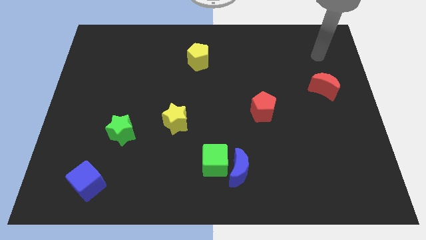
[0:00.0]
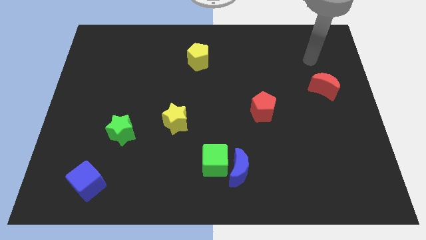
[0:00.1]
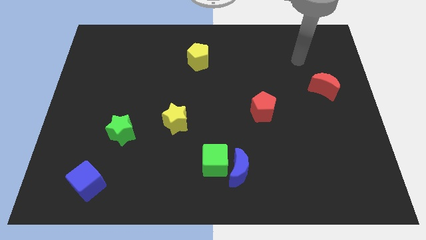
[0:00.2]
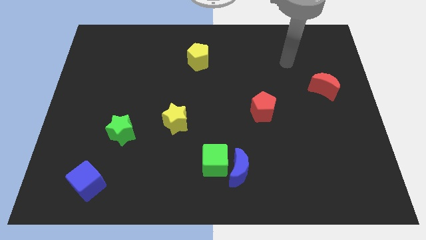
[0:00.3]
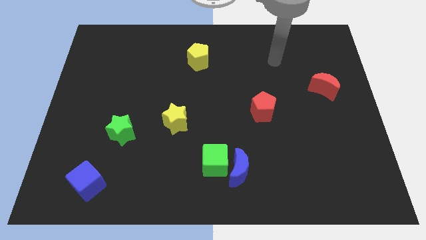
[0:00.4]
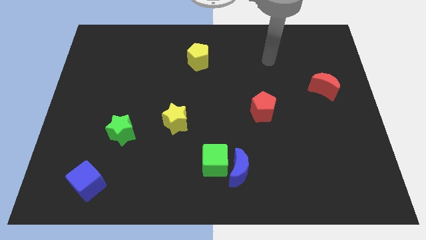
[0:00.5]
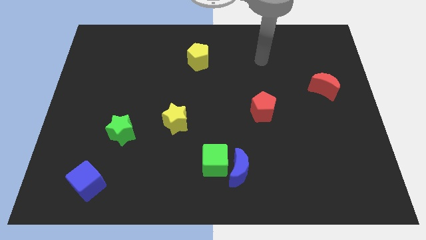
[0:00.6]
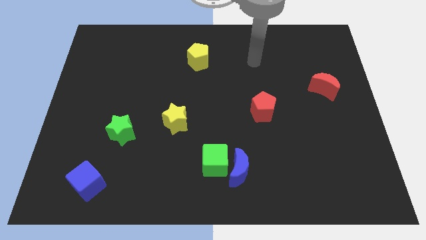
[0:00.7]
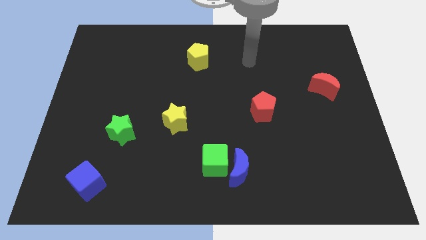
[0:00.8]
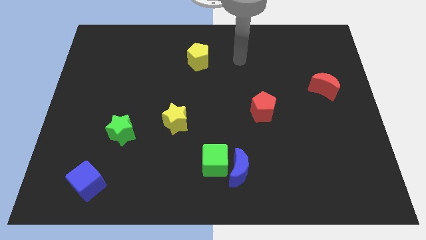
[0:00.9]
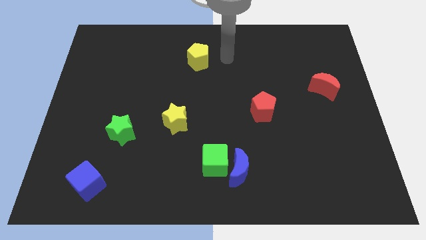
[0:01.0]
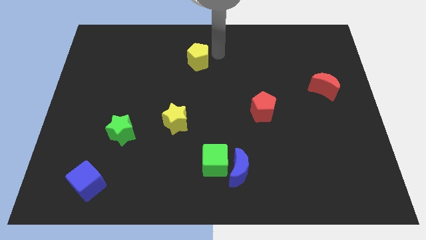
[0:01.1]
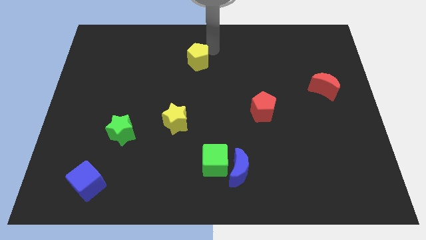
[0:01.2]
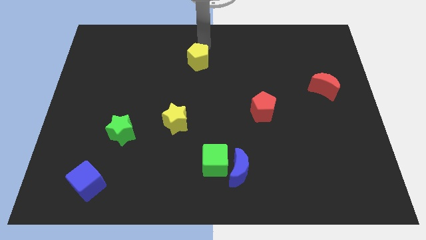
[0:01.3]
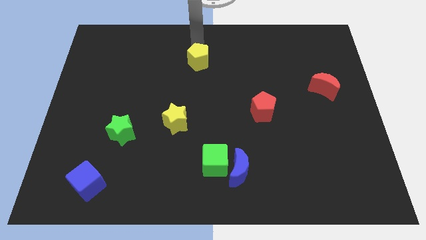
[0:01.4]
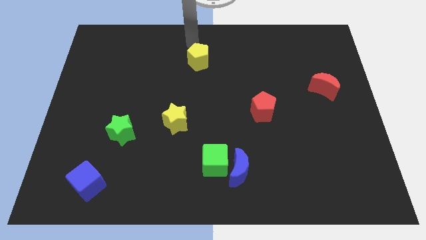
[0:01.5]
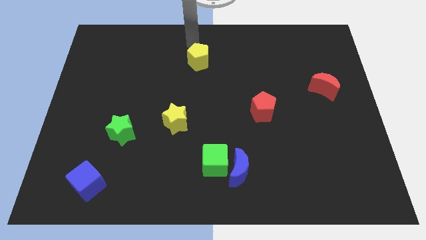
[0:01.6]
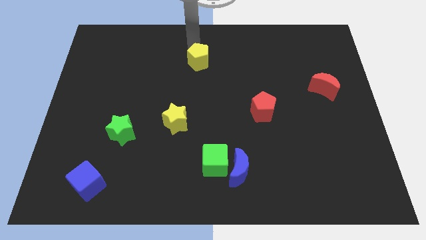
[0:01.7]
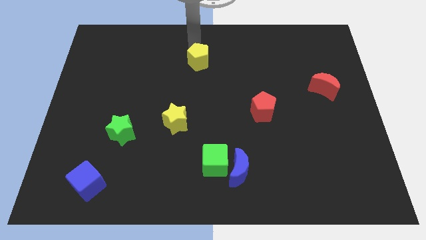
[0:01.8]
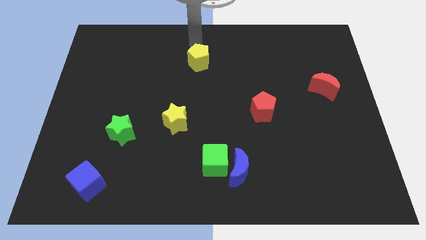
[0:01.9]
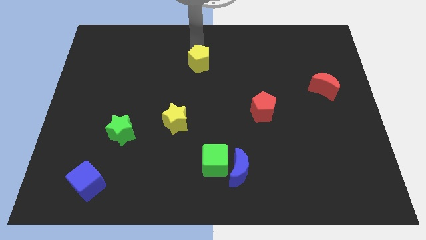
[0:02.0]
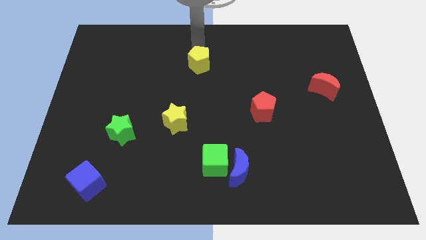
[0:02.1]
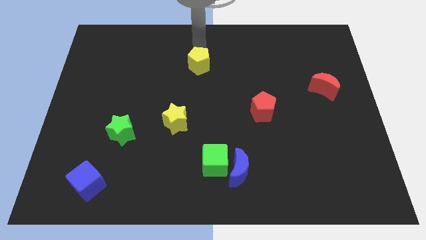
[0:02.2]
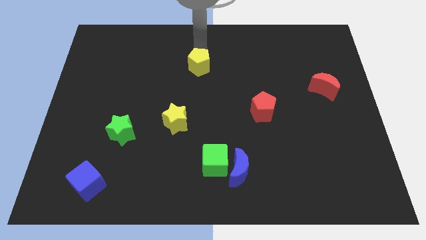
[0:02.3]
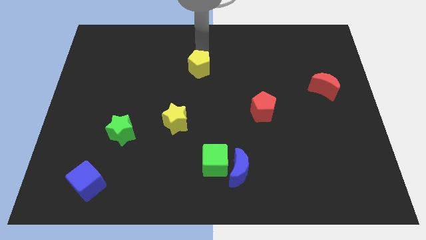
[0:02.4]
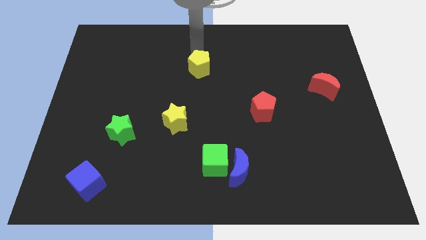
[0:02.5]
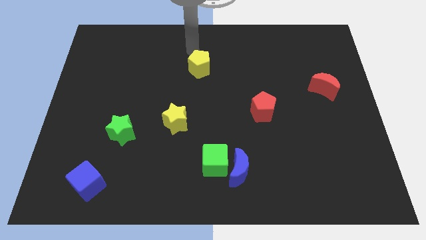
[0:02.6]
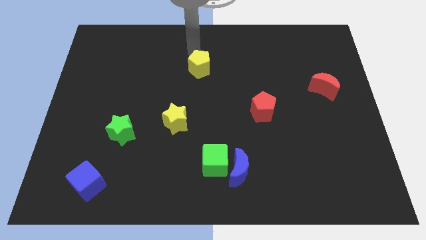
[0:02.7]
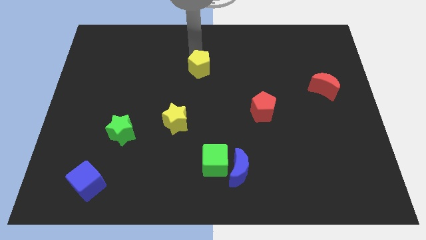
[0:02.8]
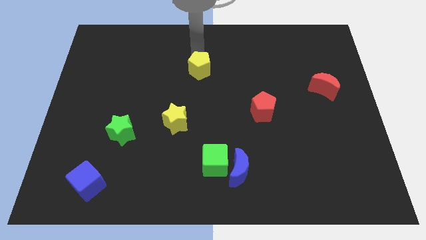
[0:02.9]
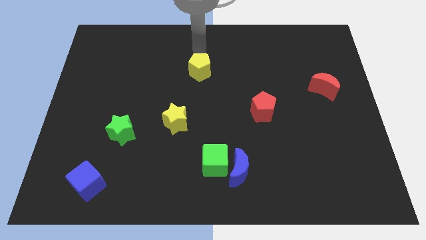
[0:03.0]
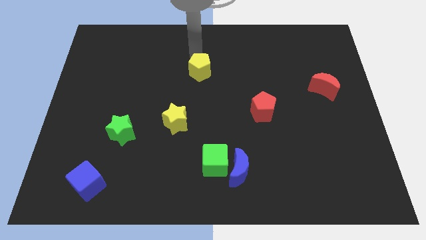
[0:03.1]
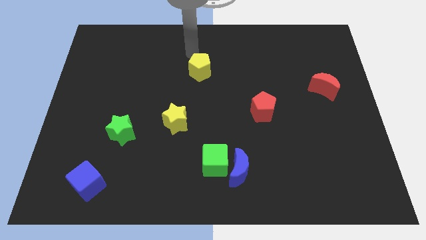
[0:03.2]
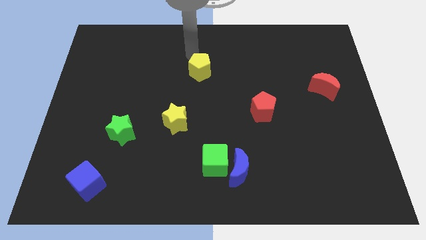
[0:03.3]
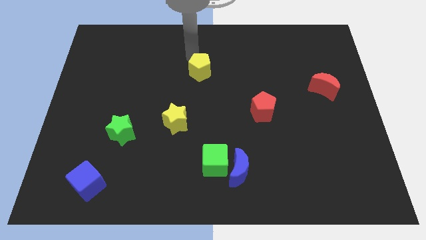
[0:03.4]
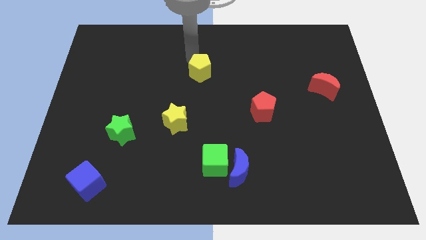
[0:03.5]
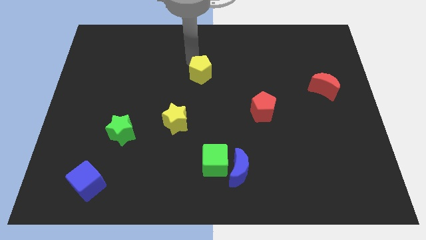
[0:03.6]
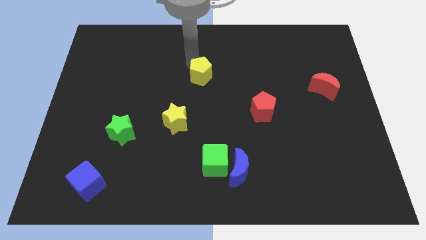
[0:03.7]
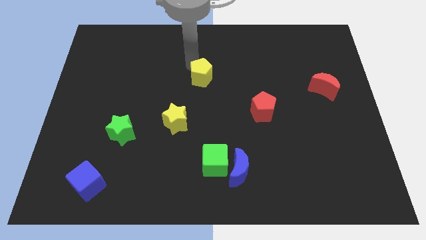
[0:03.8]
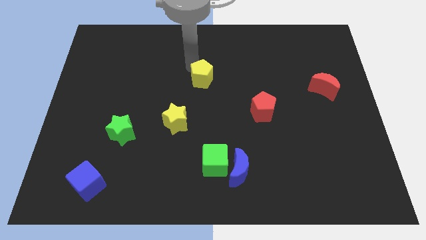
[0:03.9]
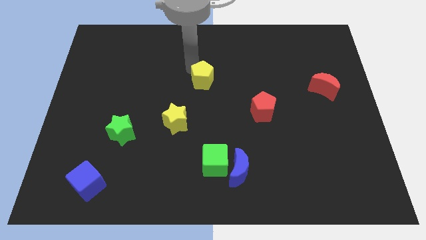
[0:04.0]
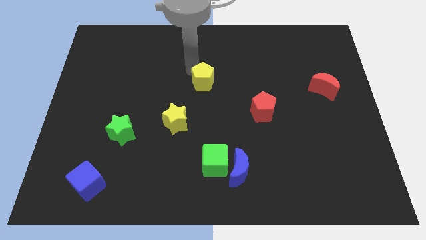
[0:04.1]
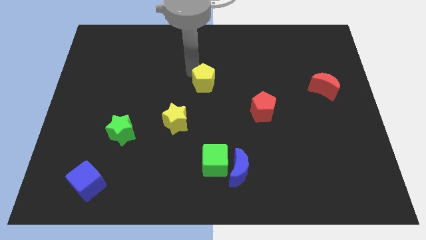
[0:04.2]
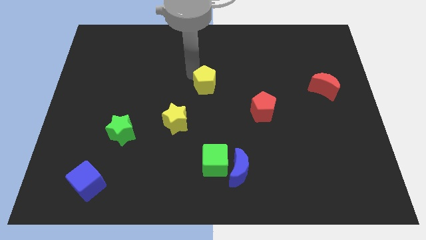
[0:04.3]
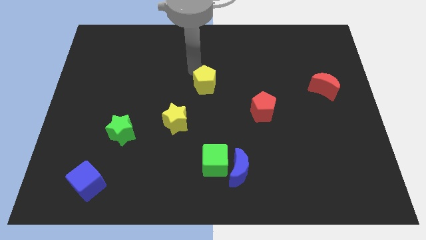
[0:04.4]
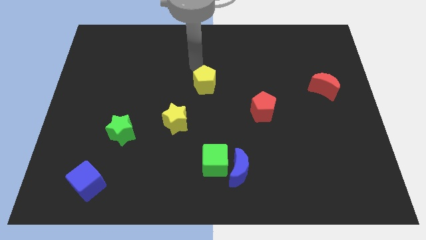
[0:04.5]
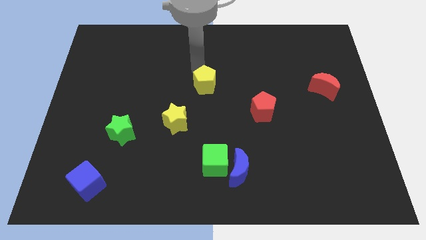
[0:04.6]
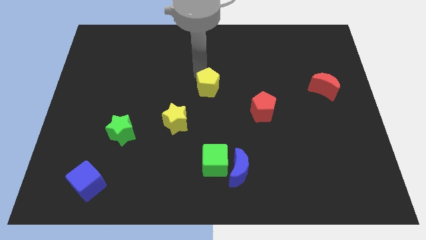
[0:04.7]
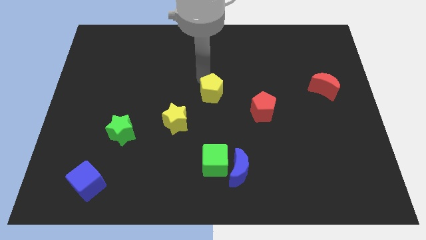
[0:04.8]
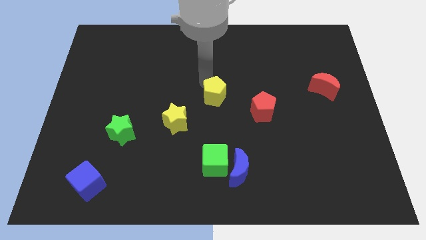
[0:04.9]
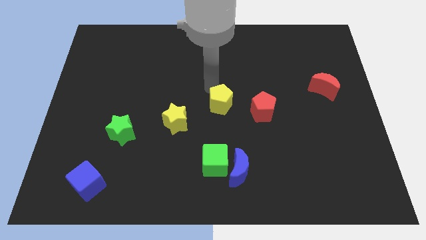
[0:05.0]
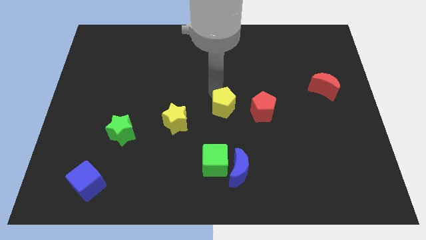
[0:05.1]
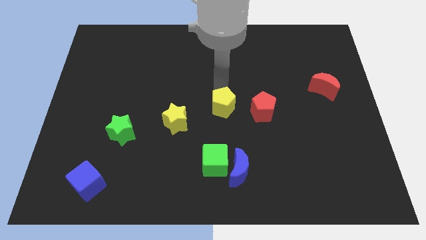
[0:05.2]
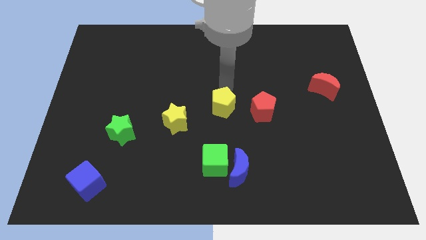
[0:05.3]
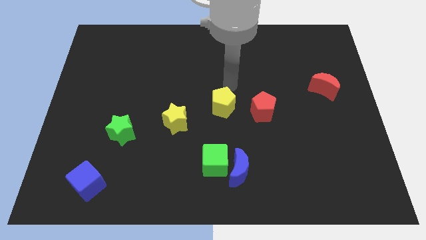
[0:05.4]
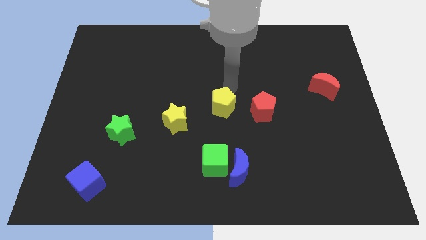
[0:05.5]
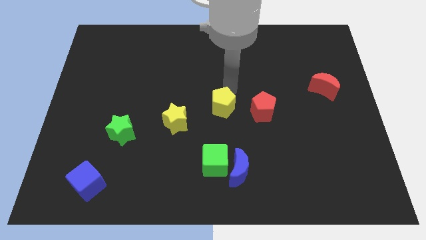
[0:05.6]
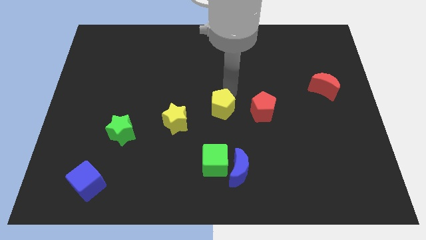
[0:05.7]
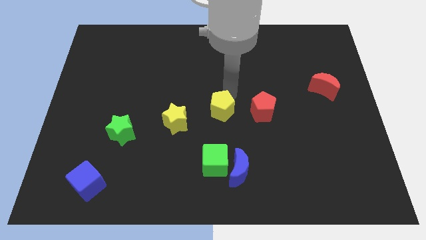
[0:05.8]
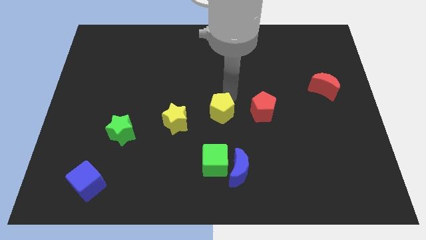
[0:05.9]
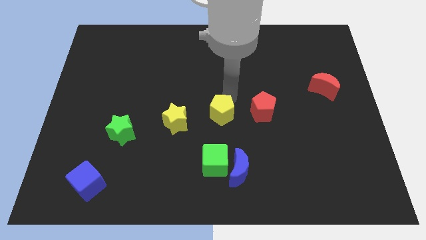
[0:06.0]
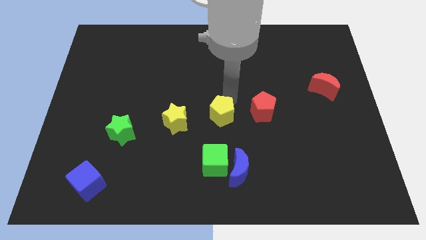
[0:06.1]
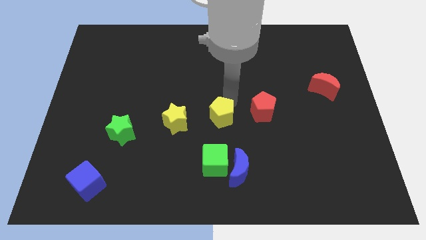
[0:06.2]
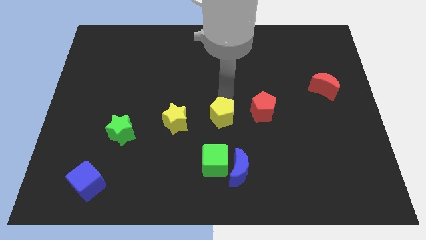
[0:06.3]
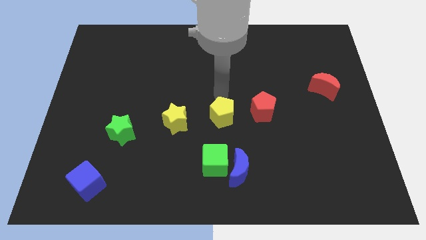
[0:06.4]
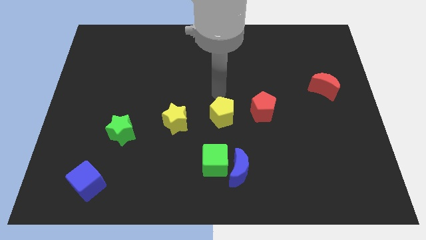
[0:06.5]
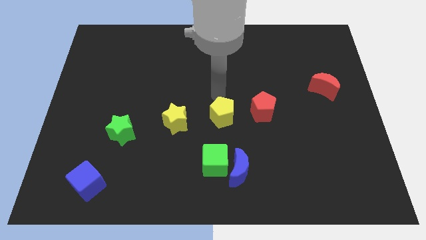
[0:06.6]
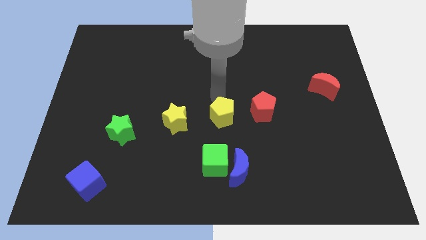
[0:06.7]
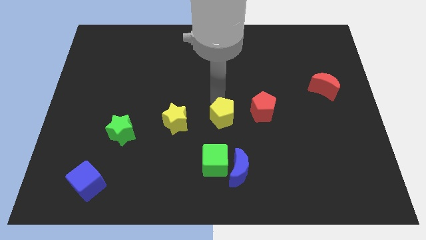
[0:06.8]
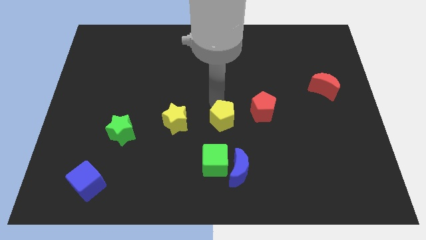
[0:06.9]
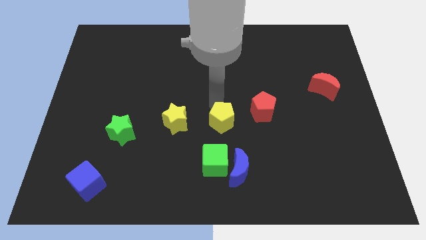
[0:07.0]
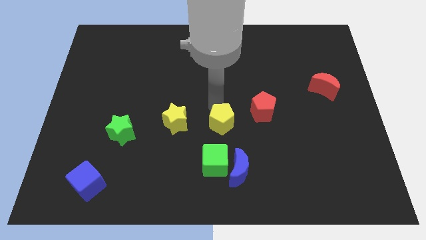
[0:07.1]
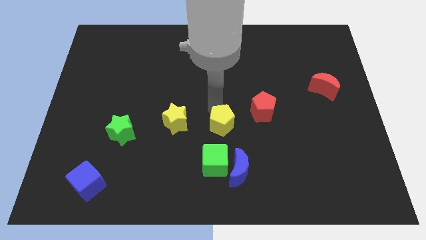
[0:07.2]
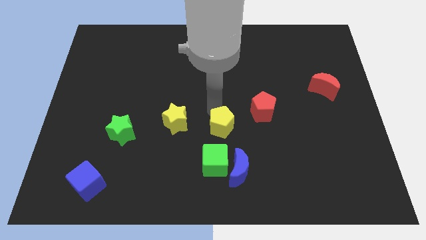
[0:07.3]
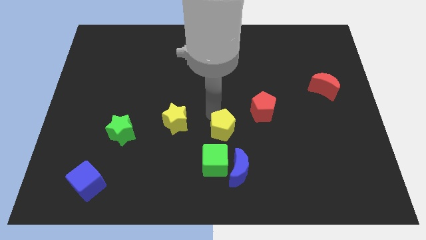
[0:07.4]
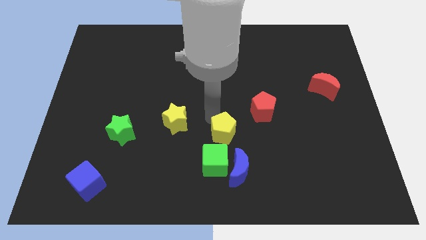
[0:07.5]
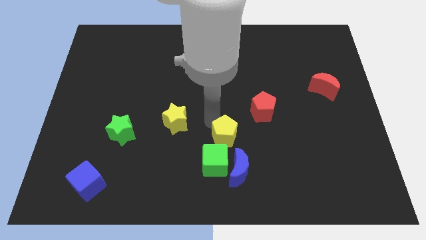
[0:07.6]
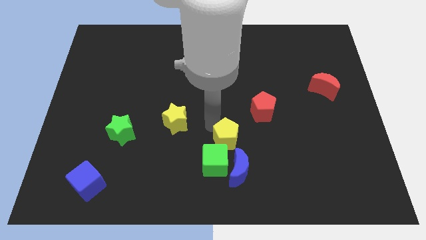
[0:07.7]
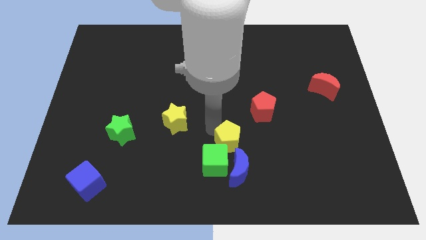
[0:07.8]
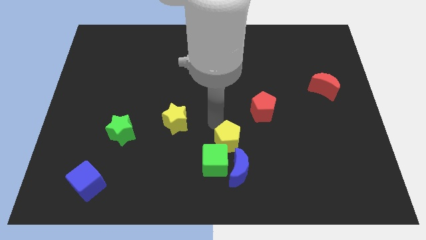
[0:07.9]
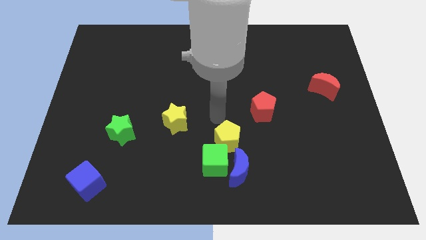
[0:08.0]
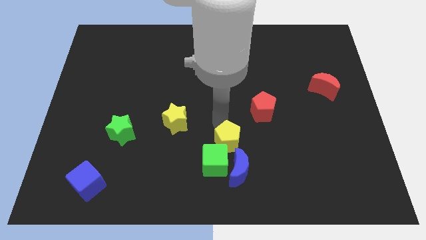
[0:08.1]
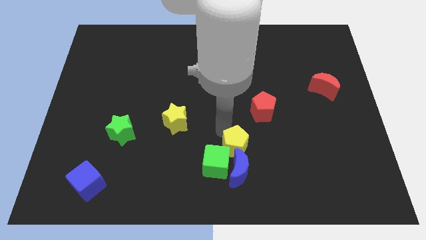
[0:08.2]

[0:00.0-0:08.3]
put the yellow pentagon to the blue moon
